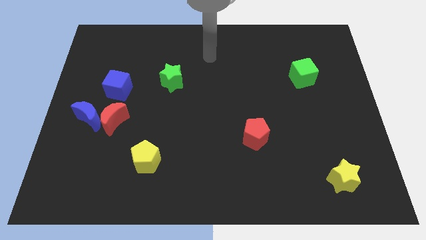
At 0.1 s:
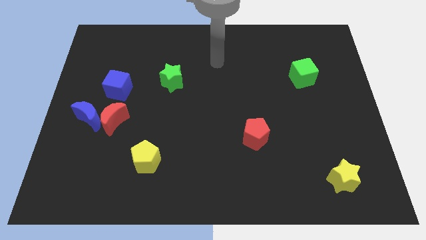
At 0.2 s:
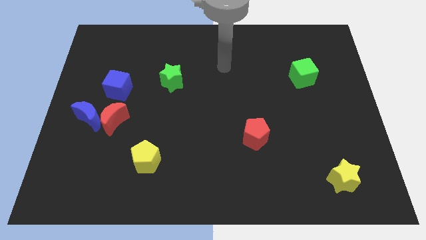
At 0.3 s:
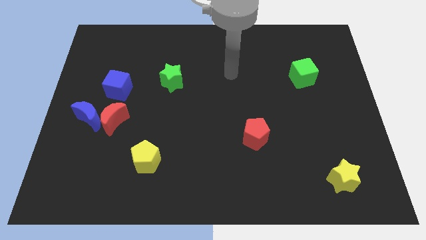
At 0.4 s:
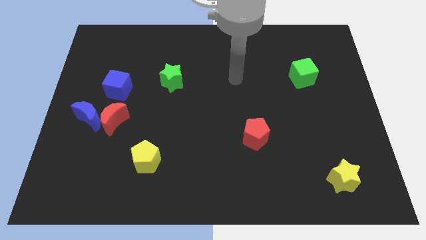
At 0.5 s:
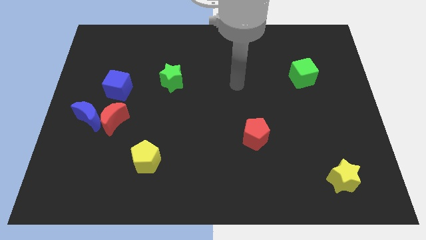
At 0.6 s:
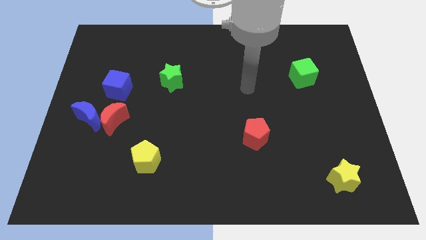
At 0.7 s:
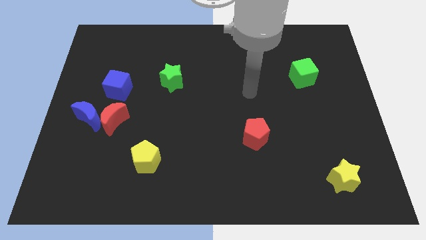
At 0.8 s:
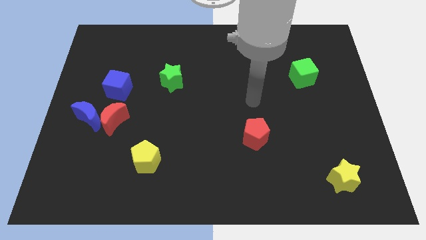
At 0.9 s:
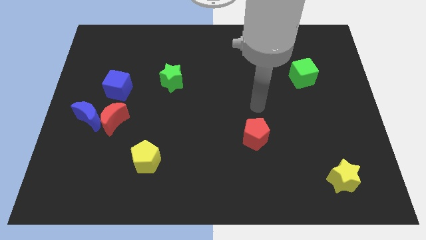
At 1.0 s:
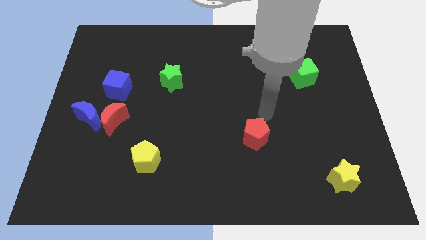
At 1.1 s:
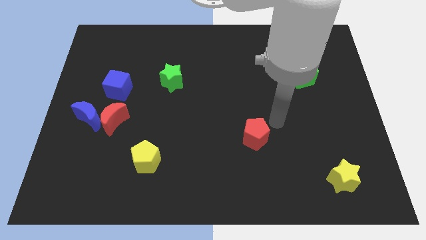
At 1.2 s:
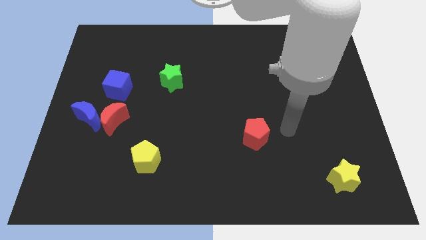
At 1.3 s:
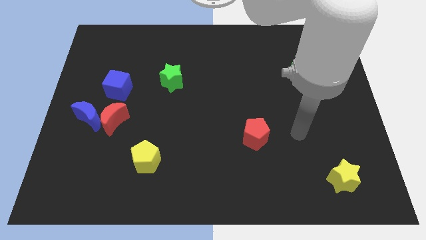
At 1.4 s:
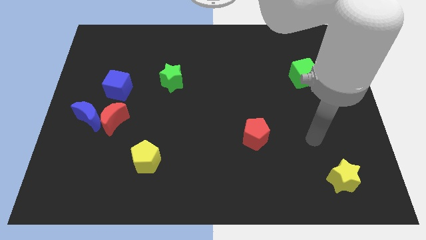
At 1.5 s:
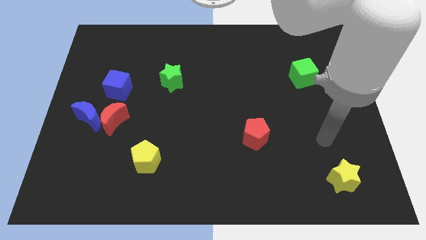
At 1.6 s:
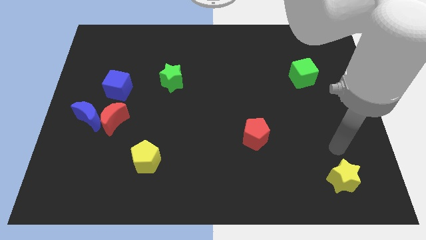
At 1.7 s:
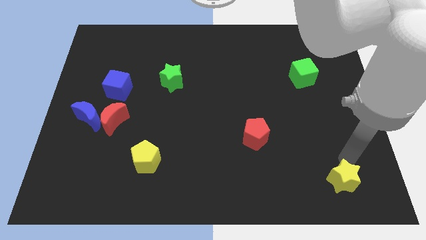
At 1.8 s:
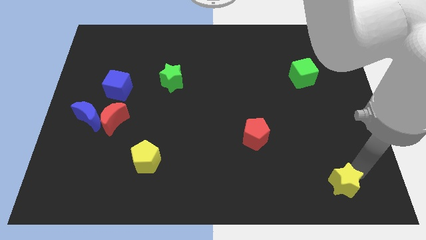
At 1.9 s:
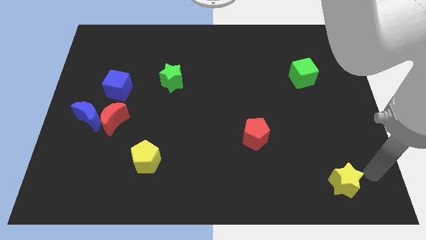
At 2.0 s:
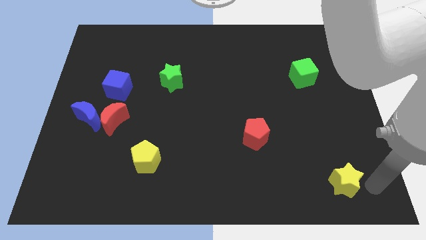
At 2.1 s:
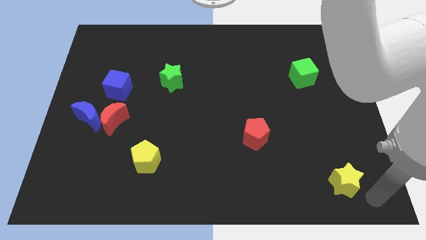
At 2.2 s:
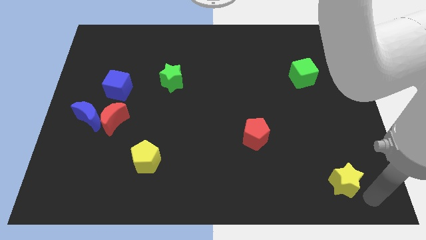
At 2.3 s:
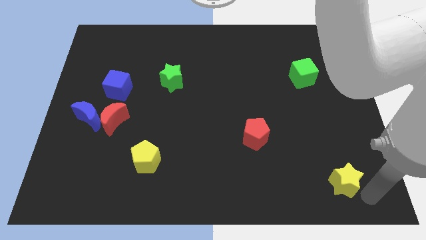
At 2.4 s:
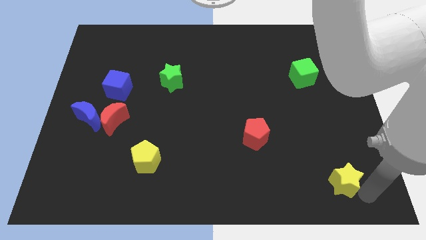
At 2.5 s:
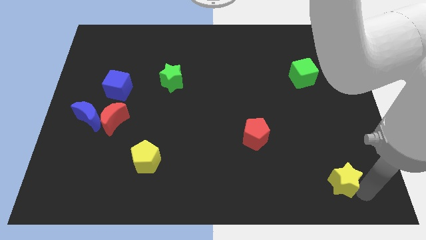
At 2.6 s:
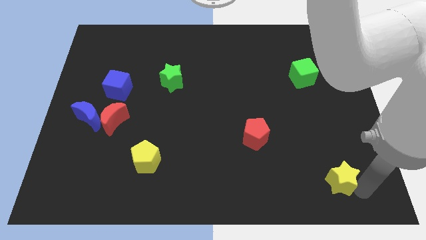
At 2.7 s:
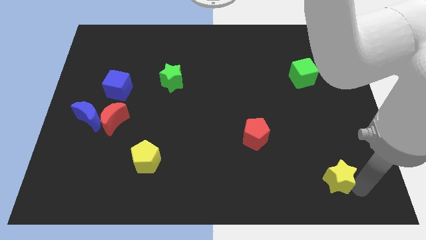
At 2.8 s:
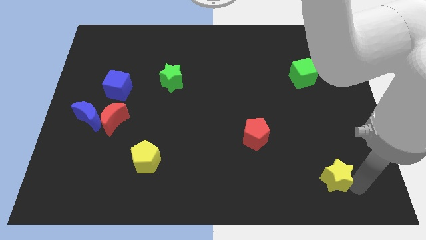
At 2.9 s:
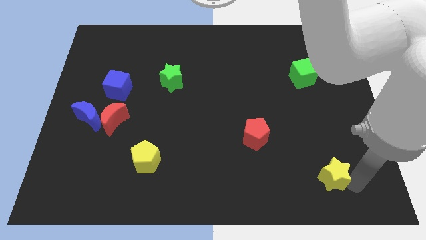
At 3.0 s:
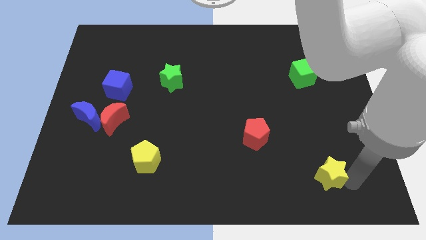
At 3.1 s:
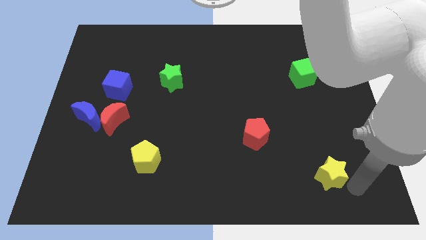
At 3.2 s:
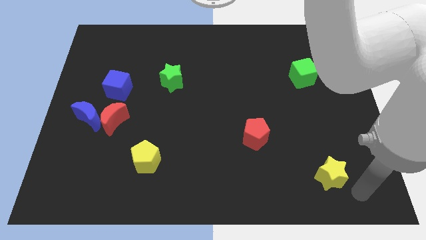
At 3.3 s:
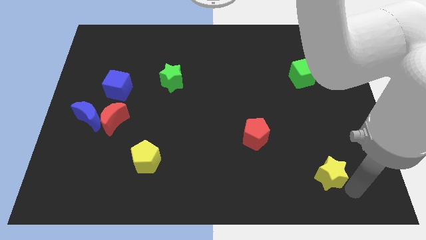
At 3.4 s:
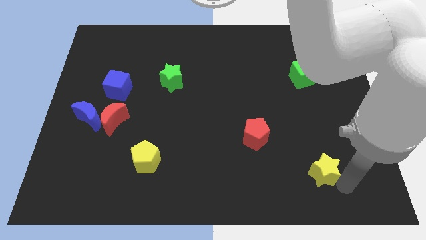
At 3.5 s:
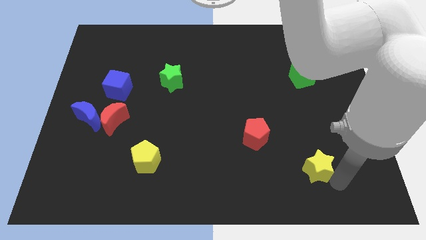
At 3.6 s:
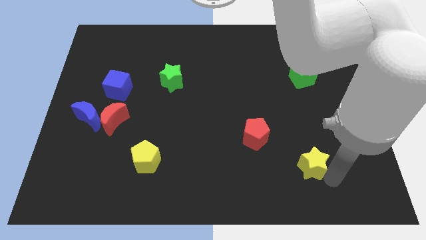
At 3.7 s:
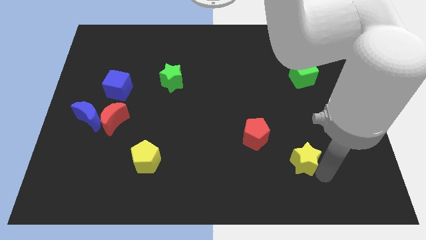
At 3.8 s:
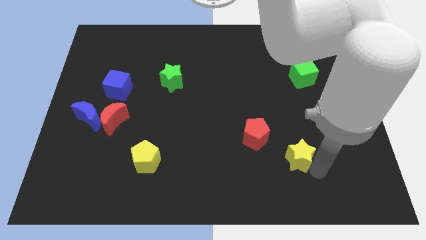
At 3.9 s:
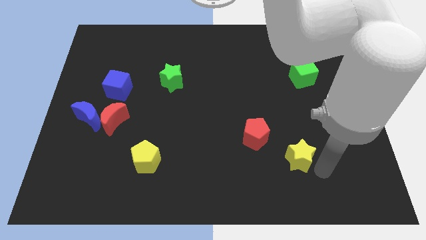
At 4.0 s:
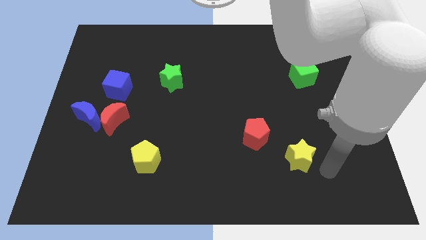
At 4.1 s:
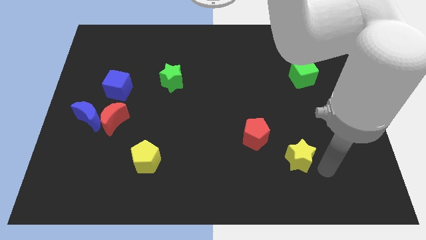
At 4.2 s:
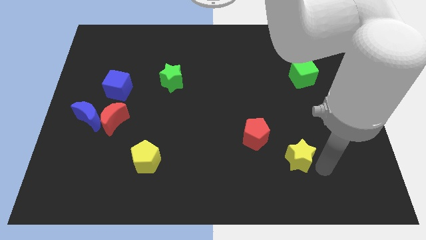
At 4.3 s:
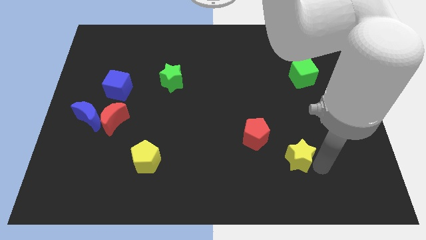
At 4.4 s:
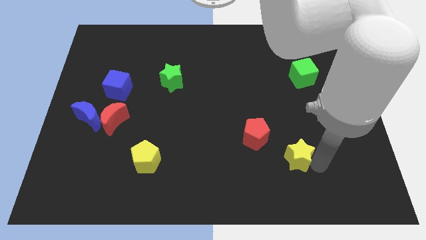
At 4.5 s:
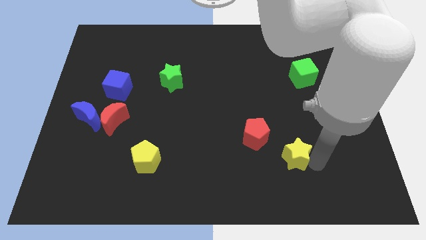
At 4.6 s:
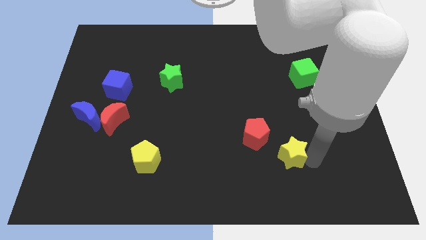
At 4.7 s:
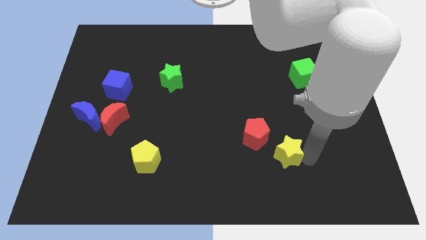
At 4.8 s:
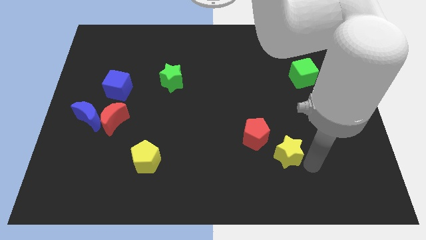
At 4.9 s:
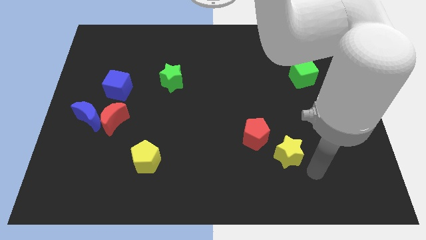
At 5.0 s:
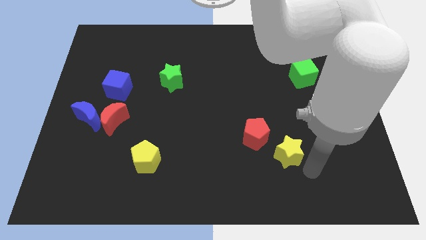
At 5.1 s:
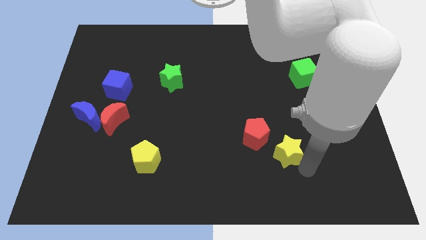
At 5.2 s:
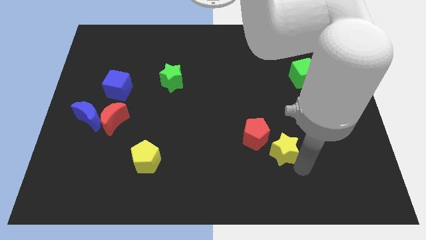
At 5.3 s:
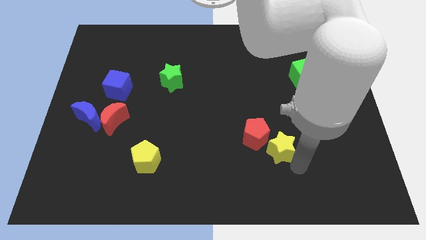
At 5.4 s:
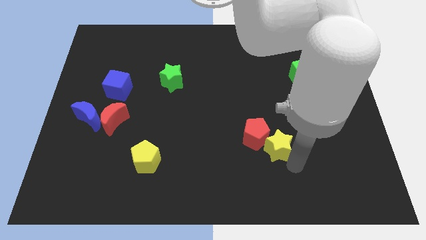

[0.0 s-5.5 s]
put the yellow star towards the red pentagon

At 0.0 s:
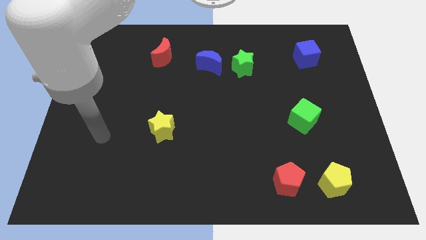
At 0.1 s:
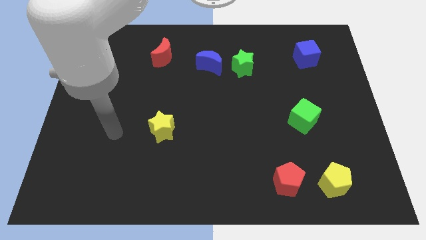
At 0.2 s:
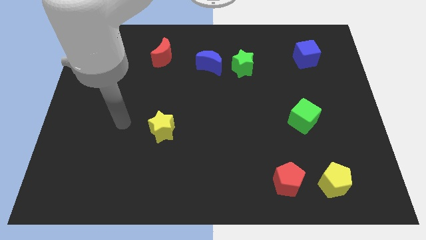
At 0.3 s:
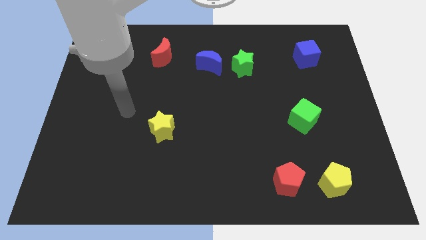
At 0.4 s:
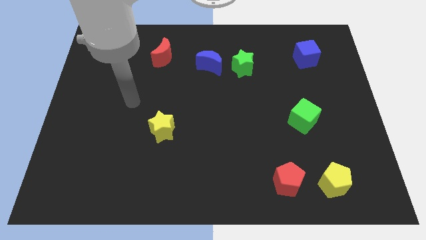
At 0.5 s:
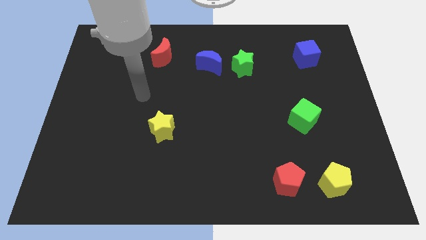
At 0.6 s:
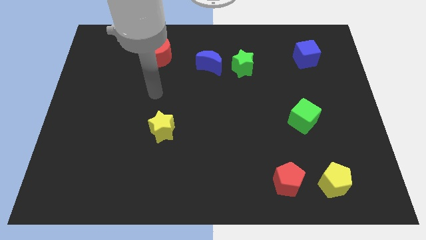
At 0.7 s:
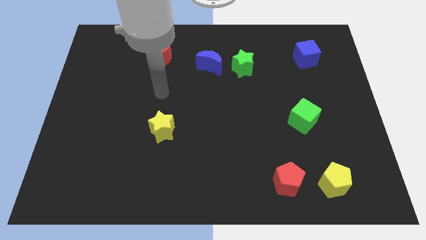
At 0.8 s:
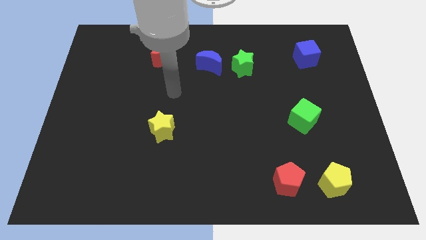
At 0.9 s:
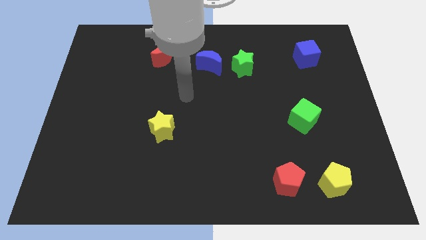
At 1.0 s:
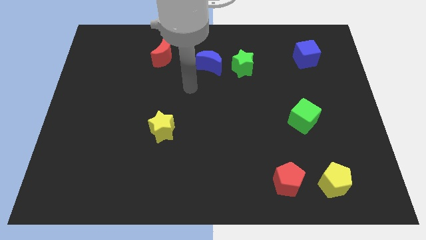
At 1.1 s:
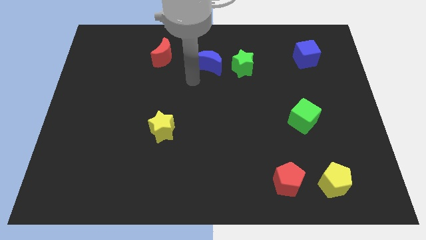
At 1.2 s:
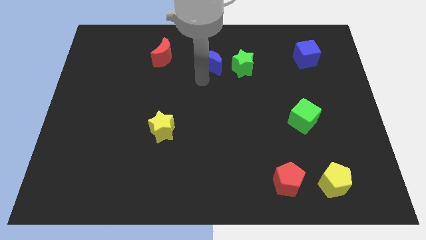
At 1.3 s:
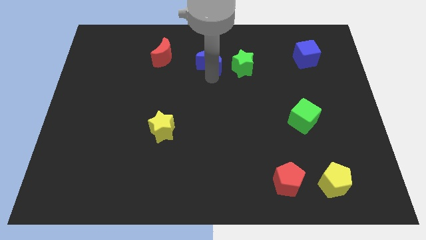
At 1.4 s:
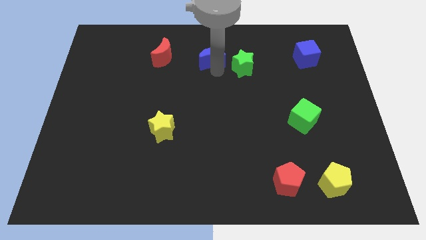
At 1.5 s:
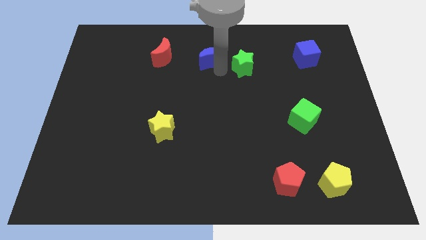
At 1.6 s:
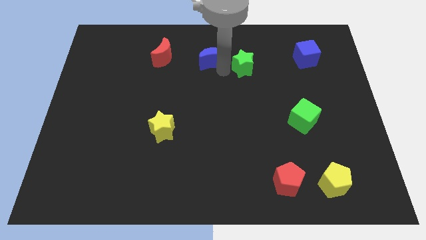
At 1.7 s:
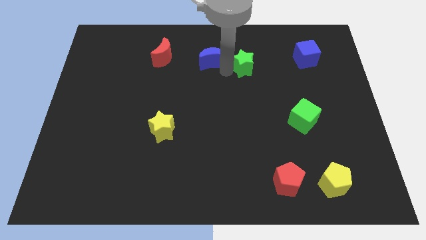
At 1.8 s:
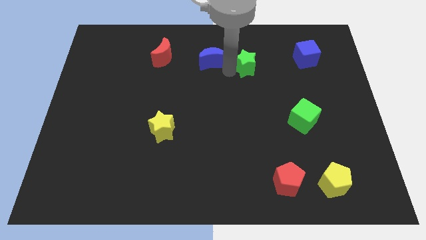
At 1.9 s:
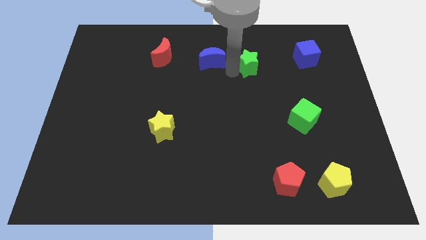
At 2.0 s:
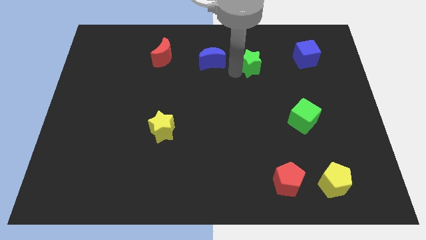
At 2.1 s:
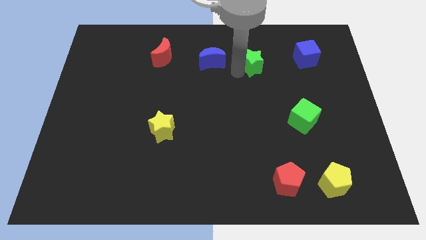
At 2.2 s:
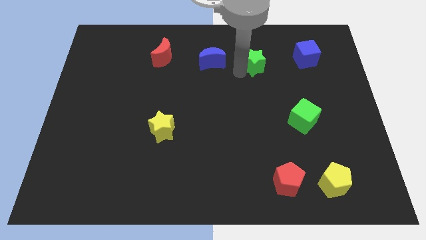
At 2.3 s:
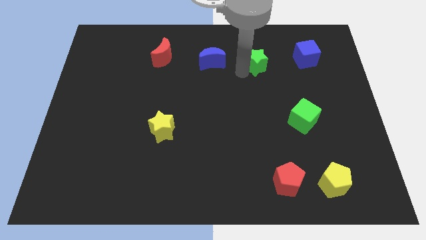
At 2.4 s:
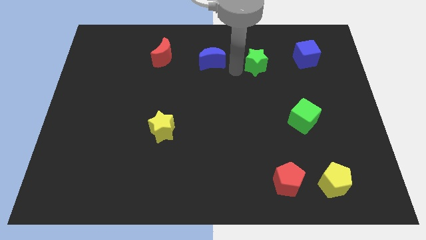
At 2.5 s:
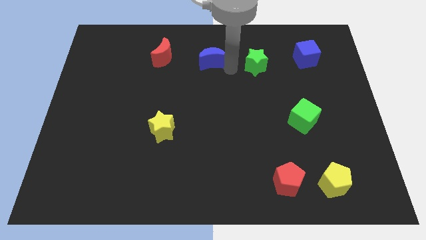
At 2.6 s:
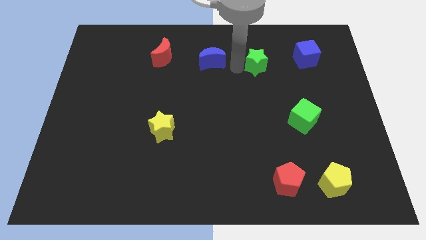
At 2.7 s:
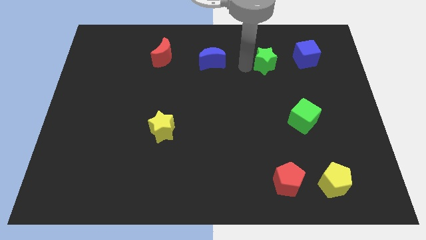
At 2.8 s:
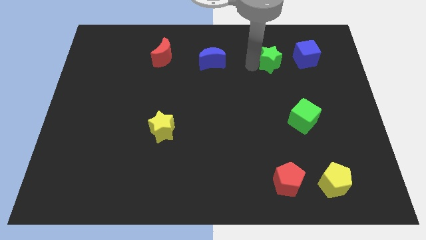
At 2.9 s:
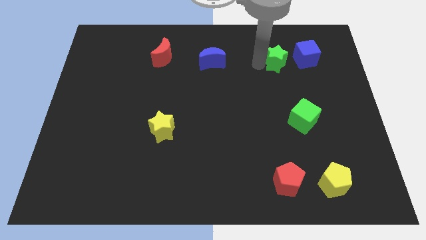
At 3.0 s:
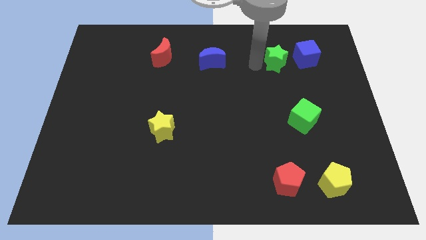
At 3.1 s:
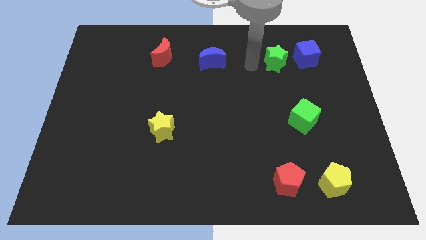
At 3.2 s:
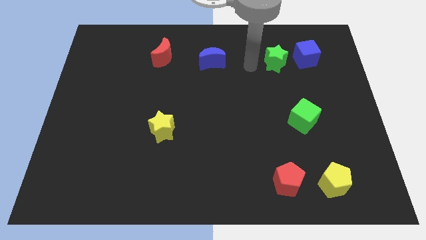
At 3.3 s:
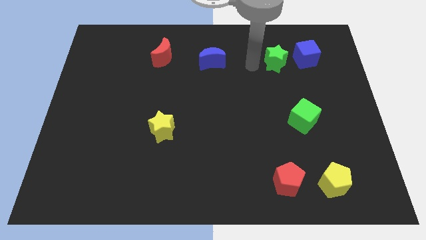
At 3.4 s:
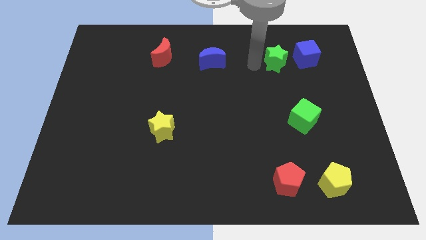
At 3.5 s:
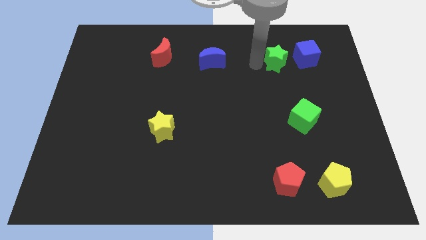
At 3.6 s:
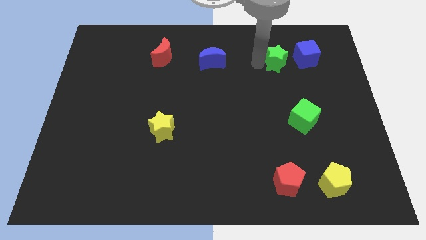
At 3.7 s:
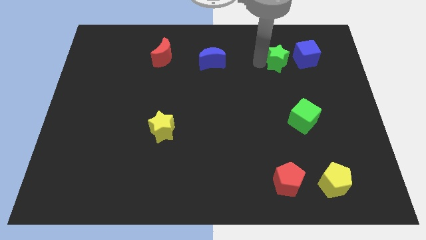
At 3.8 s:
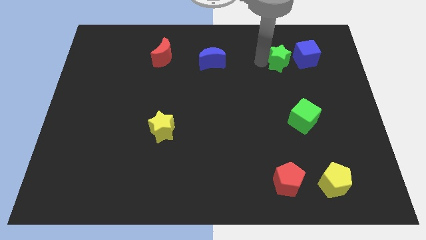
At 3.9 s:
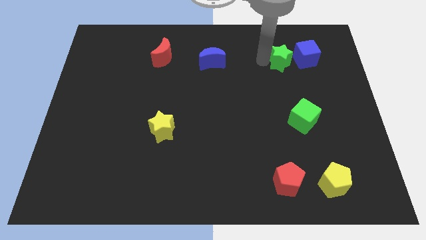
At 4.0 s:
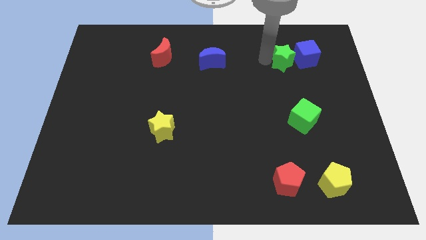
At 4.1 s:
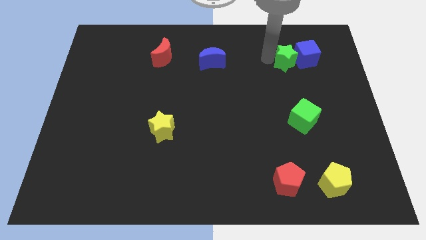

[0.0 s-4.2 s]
move the green star close to the blue cube
